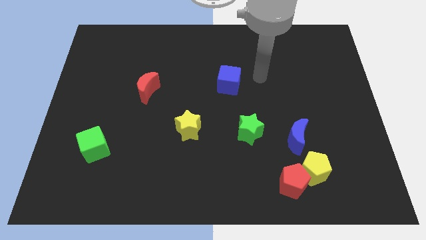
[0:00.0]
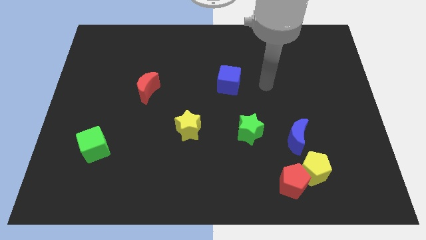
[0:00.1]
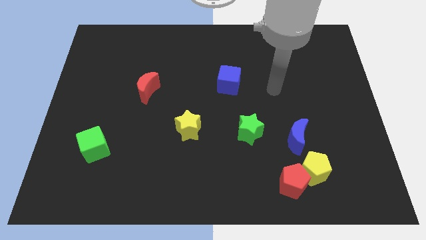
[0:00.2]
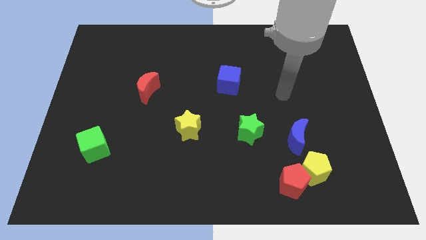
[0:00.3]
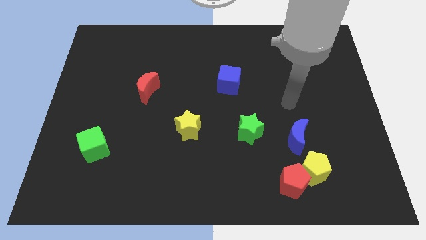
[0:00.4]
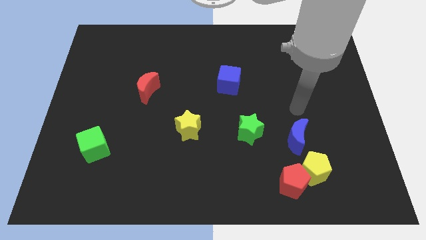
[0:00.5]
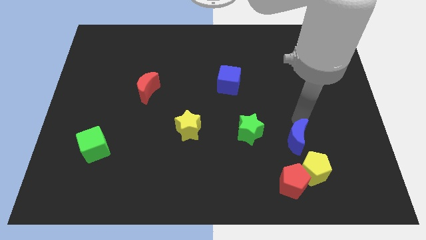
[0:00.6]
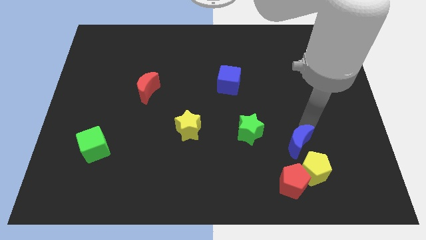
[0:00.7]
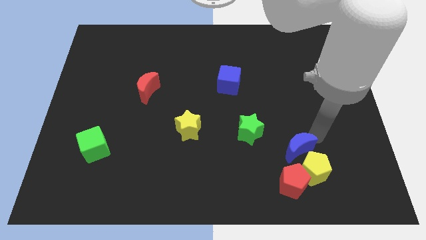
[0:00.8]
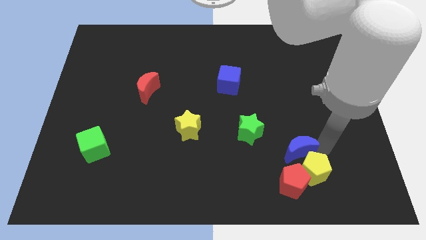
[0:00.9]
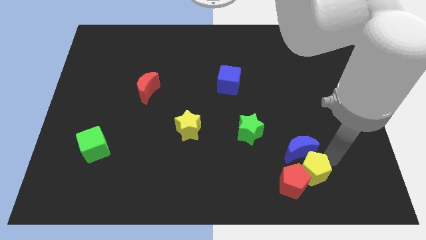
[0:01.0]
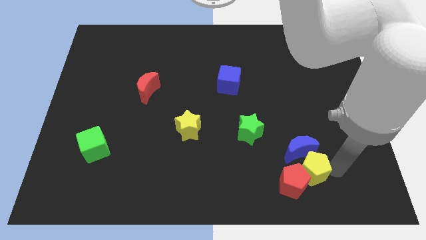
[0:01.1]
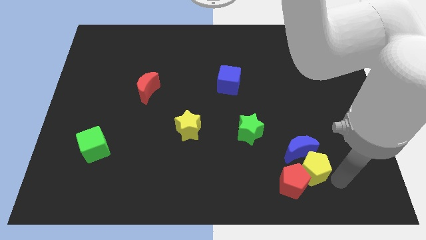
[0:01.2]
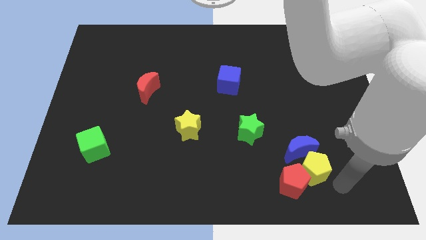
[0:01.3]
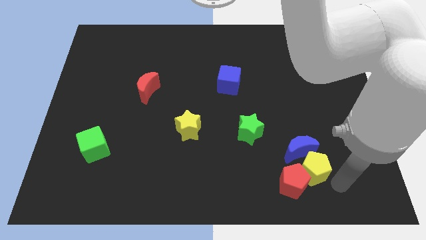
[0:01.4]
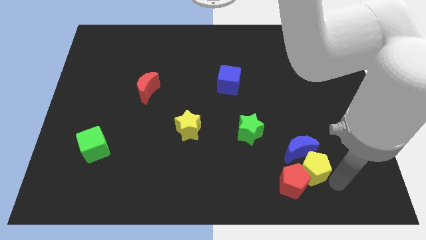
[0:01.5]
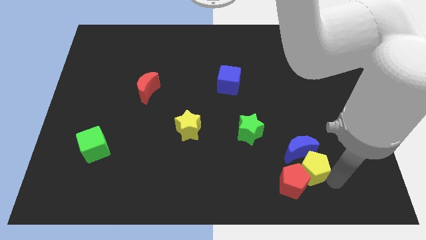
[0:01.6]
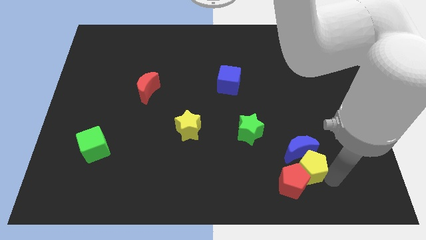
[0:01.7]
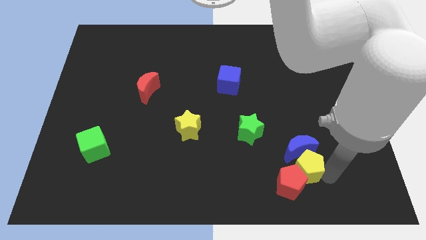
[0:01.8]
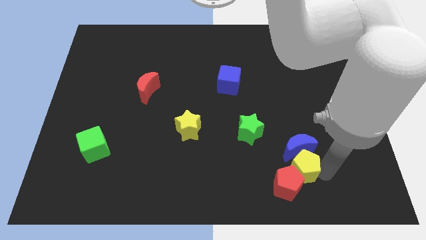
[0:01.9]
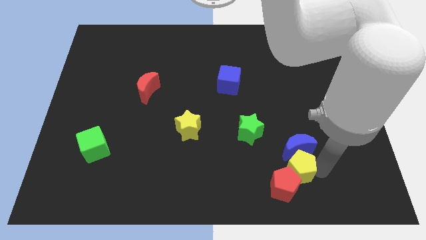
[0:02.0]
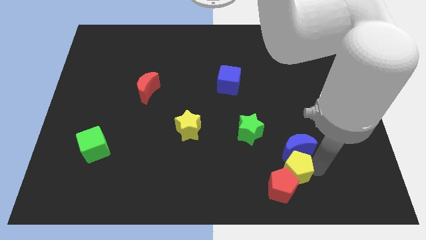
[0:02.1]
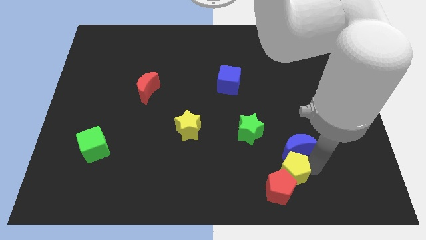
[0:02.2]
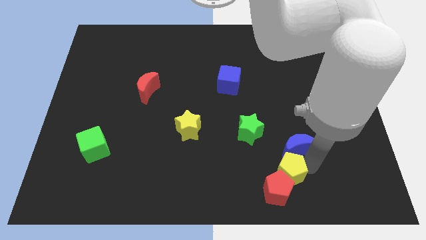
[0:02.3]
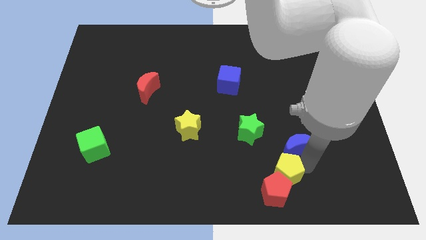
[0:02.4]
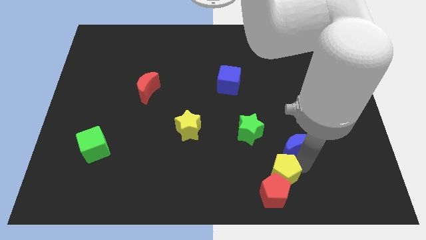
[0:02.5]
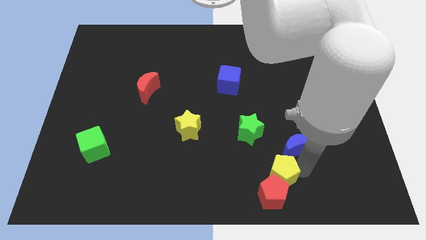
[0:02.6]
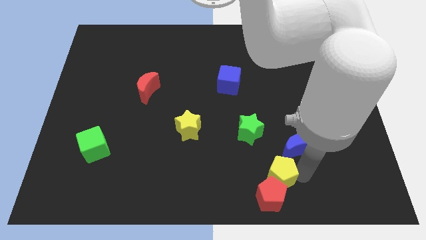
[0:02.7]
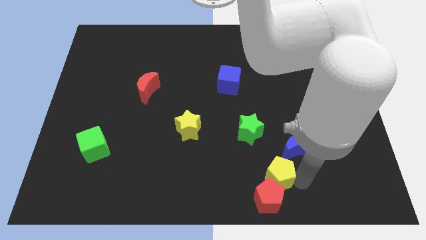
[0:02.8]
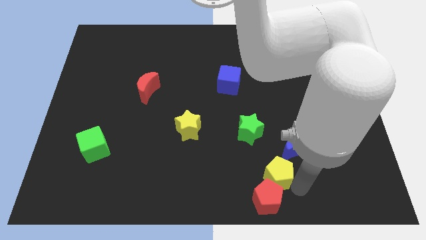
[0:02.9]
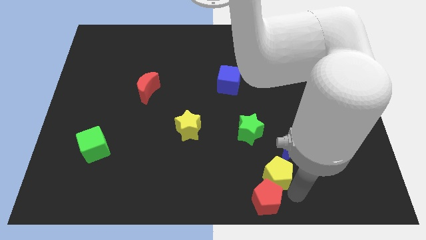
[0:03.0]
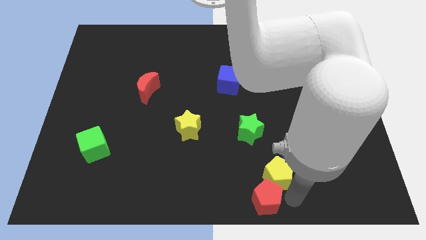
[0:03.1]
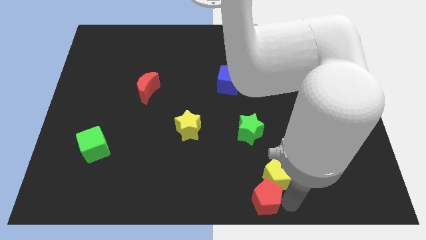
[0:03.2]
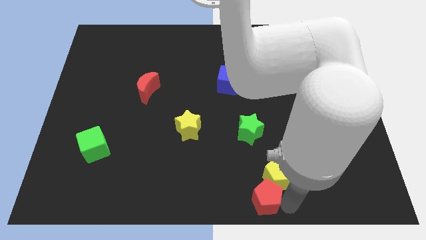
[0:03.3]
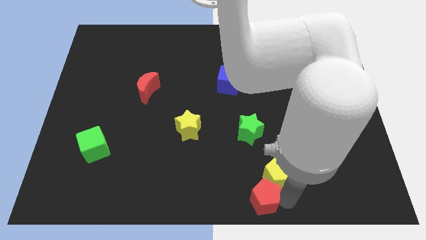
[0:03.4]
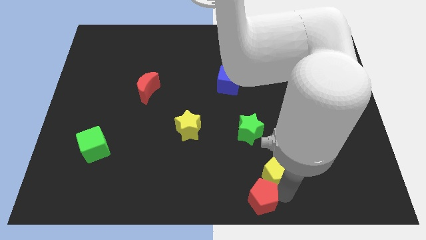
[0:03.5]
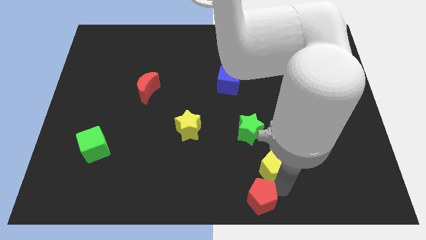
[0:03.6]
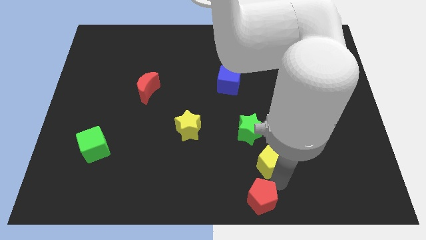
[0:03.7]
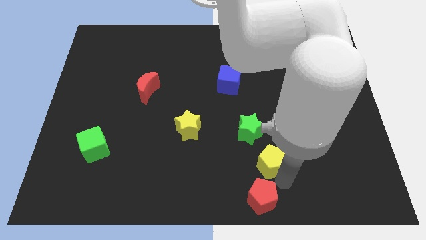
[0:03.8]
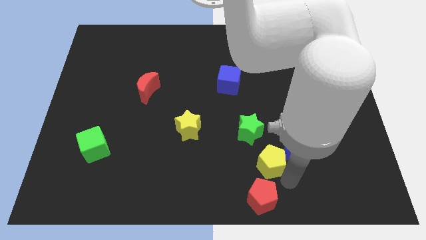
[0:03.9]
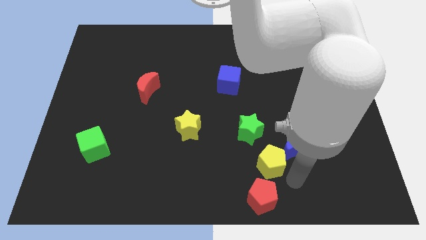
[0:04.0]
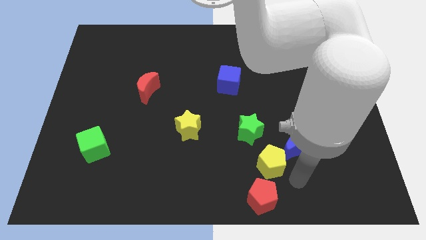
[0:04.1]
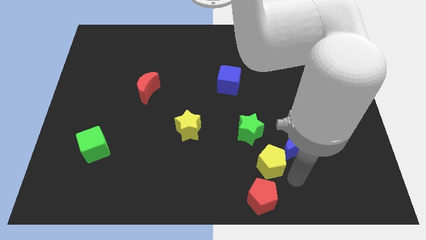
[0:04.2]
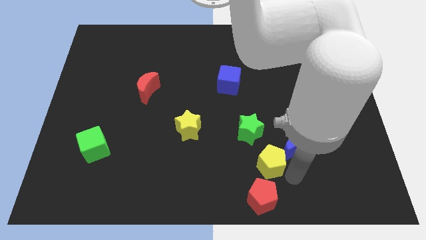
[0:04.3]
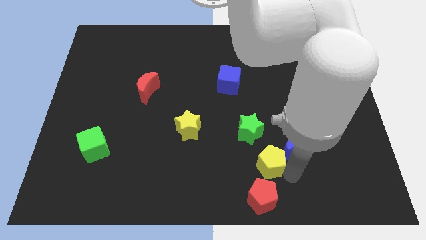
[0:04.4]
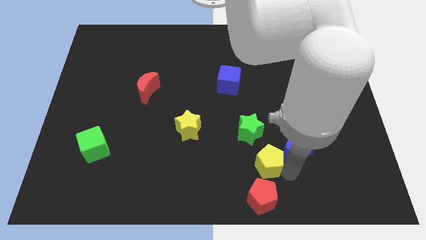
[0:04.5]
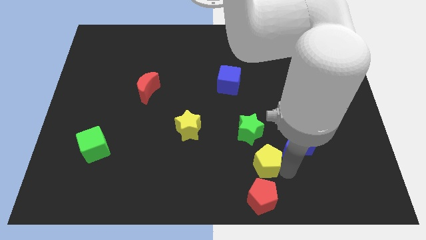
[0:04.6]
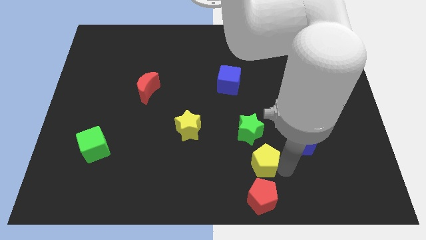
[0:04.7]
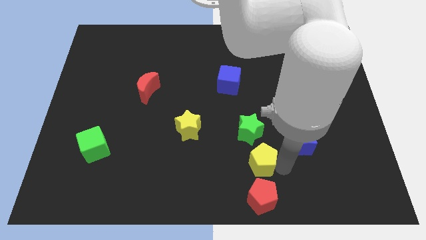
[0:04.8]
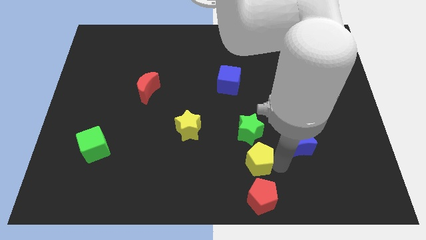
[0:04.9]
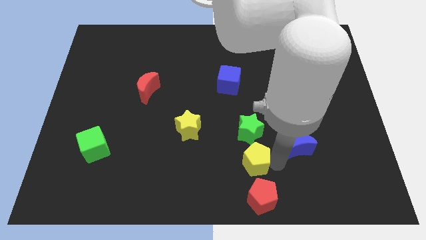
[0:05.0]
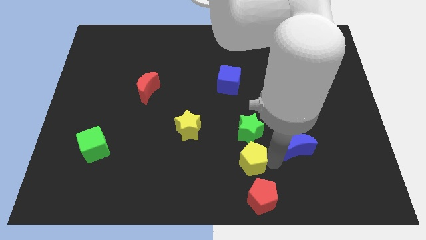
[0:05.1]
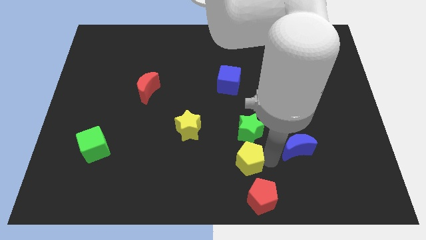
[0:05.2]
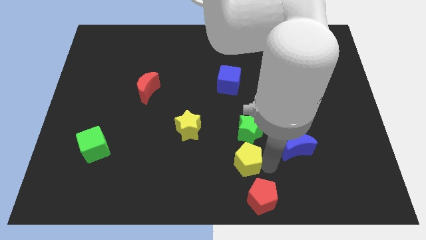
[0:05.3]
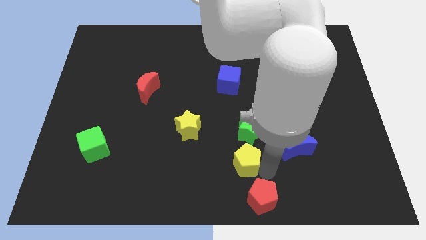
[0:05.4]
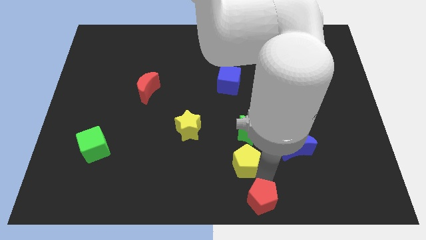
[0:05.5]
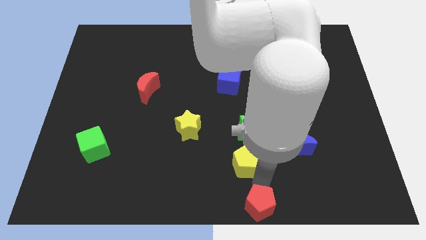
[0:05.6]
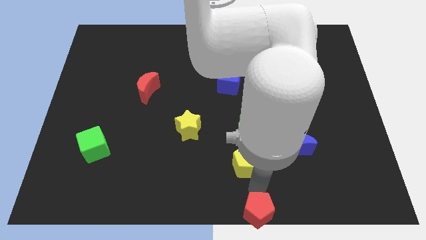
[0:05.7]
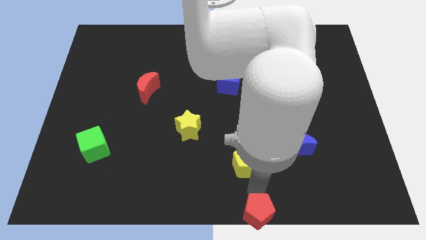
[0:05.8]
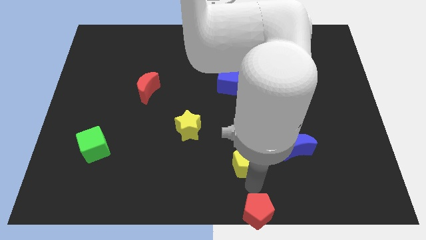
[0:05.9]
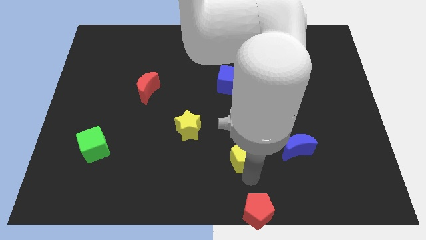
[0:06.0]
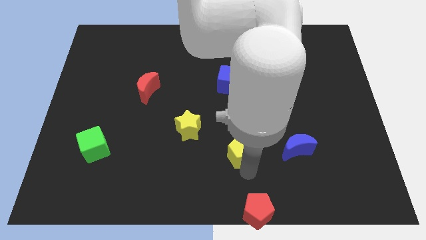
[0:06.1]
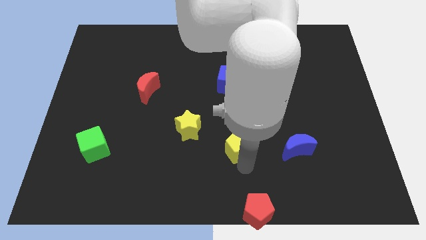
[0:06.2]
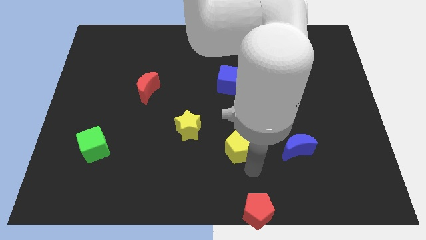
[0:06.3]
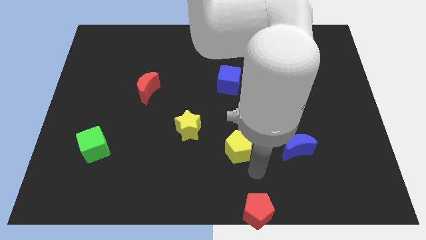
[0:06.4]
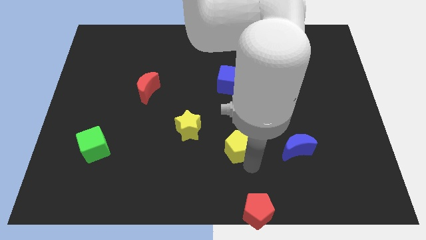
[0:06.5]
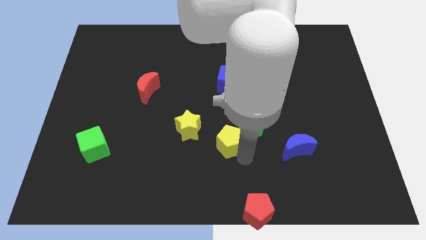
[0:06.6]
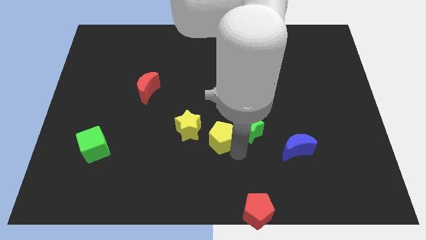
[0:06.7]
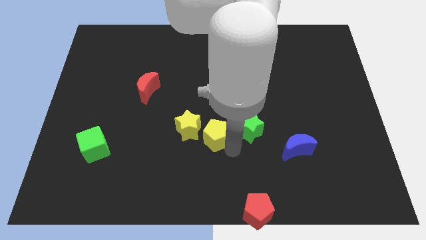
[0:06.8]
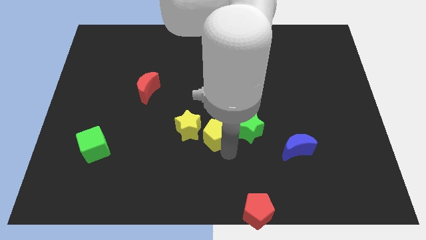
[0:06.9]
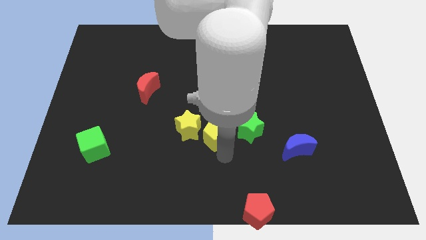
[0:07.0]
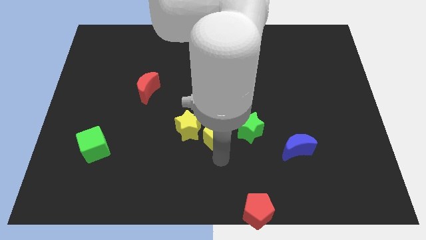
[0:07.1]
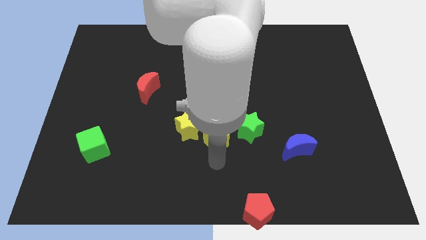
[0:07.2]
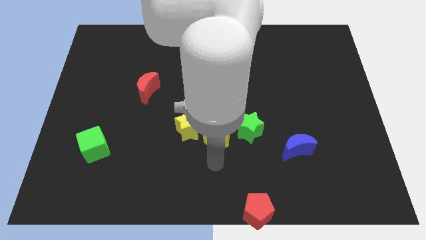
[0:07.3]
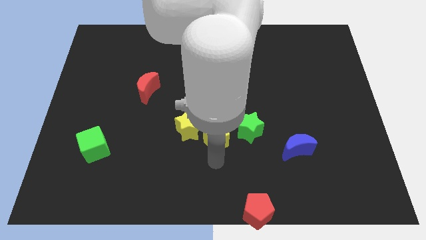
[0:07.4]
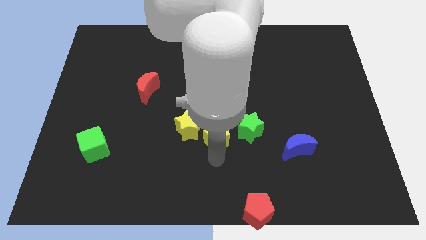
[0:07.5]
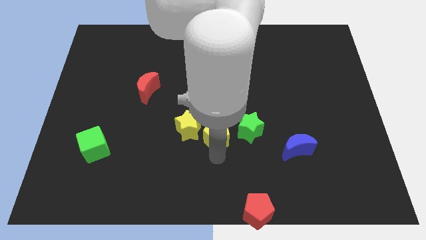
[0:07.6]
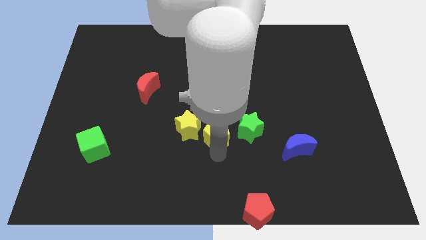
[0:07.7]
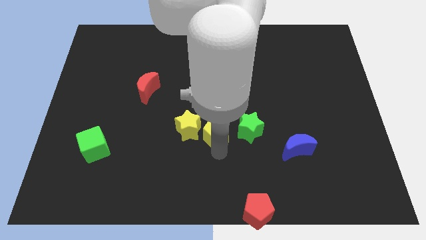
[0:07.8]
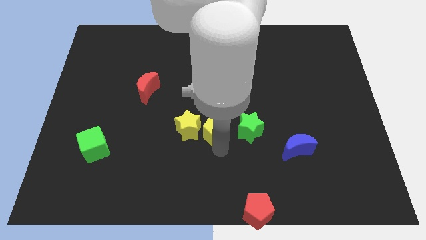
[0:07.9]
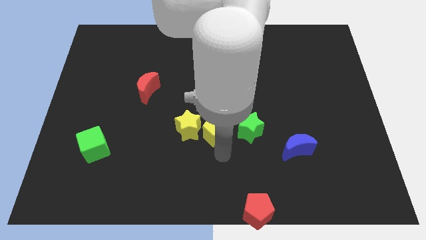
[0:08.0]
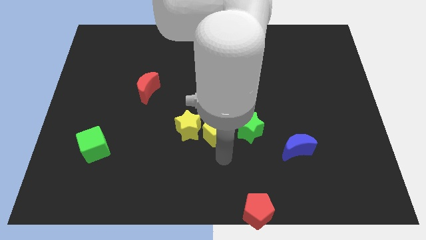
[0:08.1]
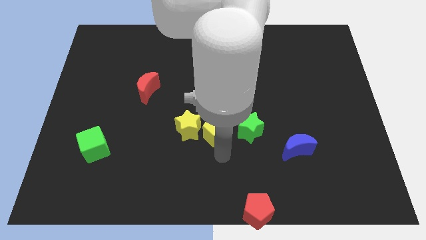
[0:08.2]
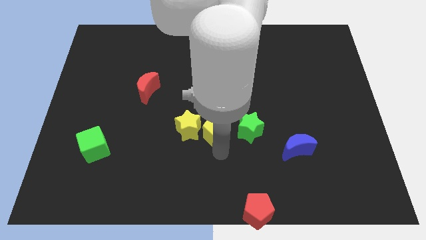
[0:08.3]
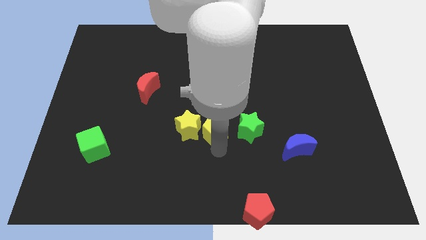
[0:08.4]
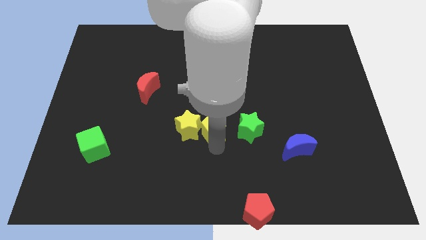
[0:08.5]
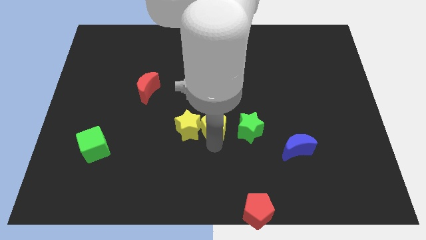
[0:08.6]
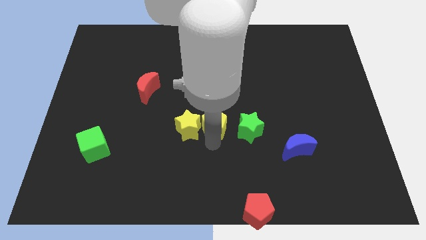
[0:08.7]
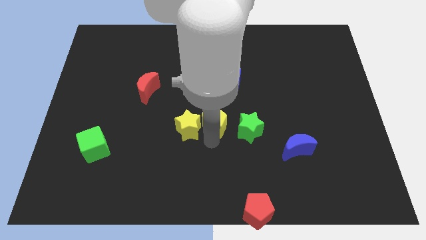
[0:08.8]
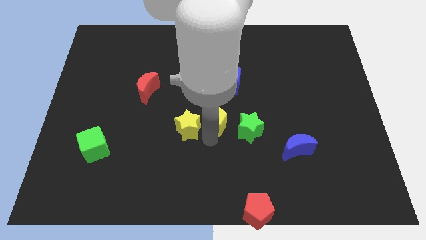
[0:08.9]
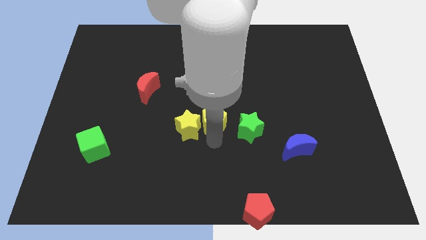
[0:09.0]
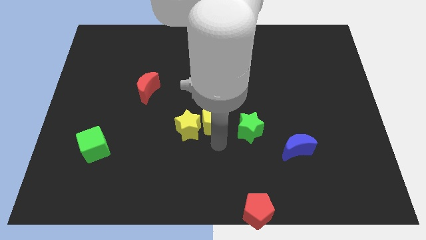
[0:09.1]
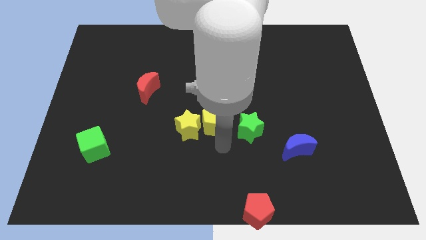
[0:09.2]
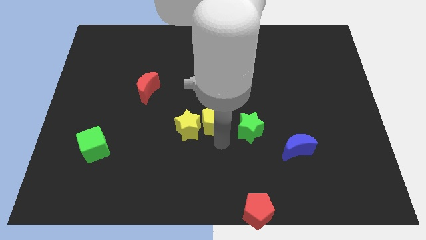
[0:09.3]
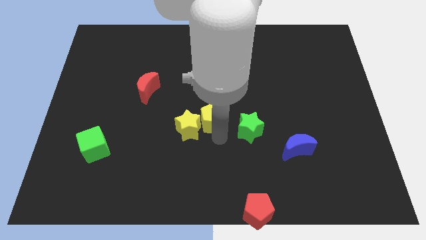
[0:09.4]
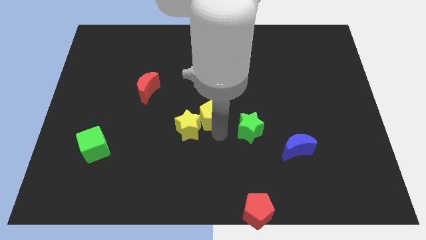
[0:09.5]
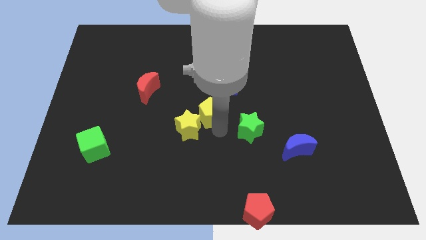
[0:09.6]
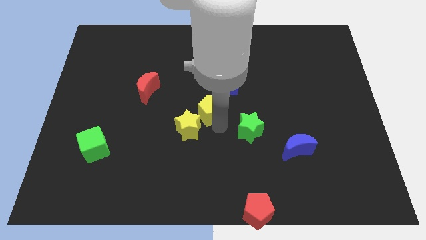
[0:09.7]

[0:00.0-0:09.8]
move the yellow pentagon above the yellow star
